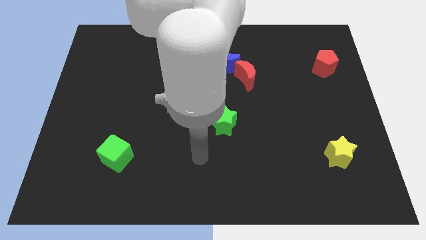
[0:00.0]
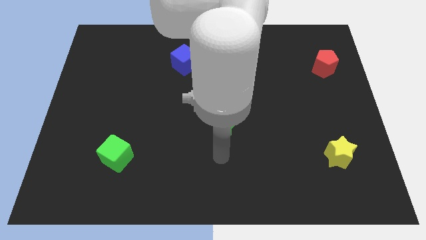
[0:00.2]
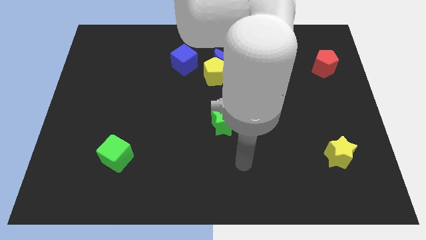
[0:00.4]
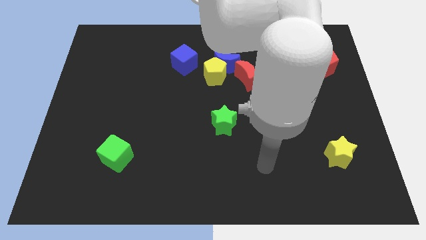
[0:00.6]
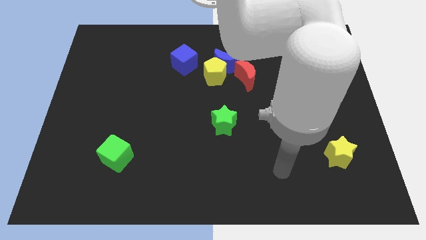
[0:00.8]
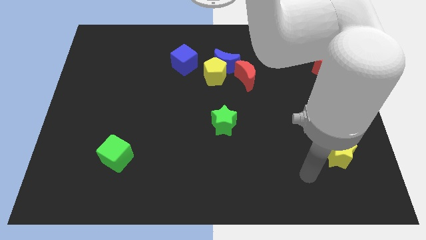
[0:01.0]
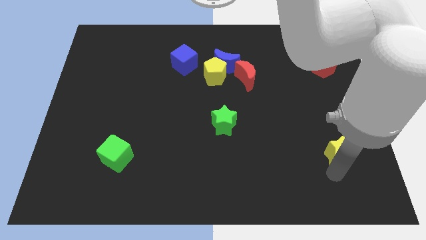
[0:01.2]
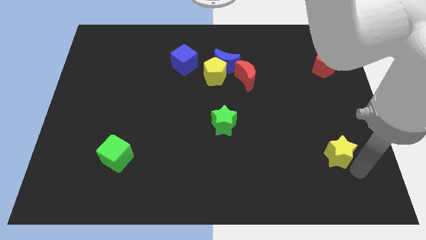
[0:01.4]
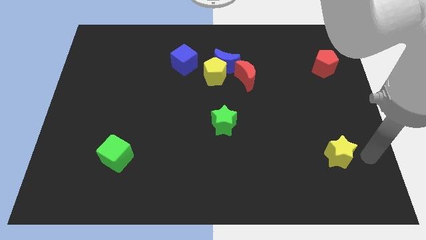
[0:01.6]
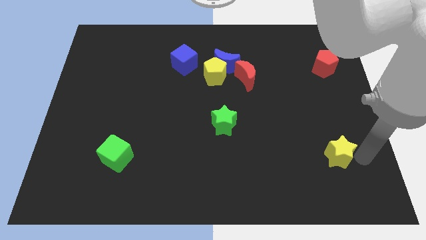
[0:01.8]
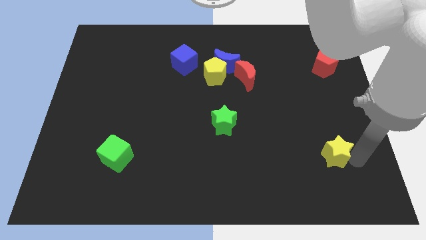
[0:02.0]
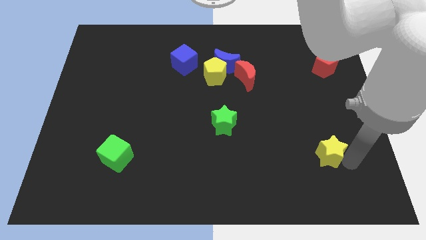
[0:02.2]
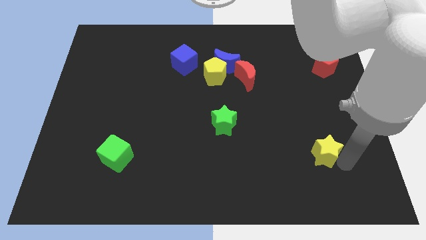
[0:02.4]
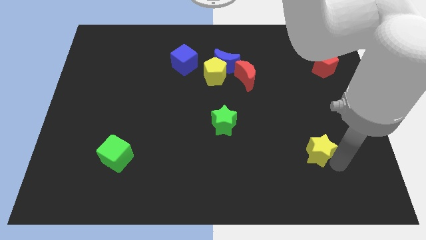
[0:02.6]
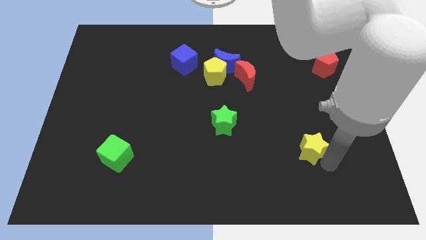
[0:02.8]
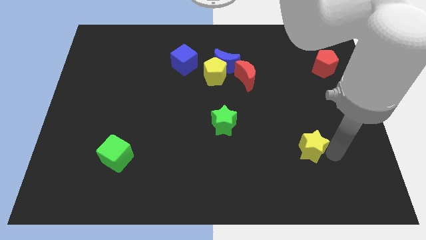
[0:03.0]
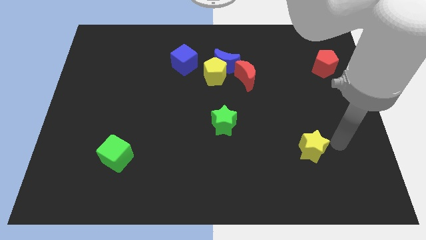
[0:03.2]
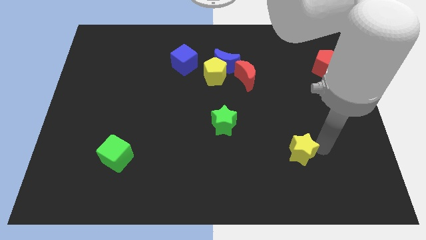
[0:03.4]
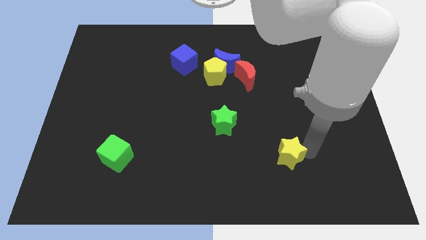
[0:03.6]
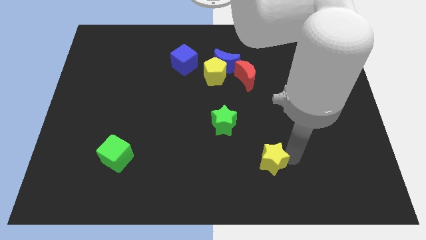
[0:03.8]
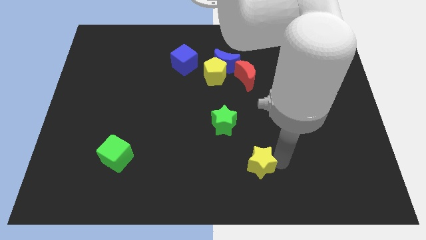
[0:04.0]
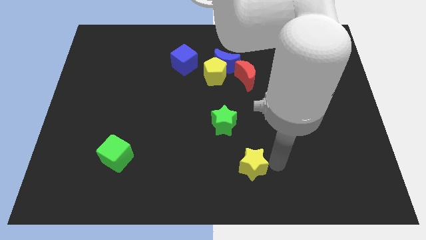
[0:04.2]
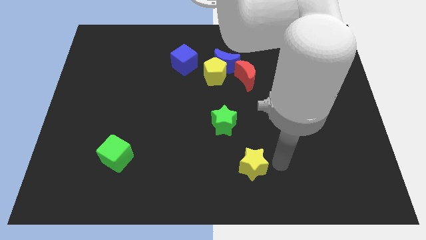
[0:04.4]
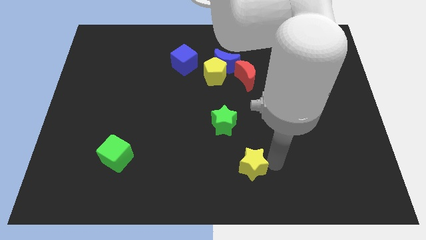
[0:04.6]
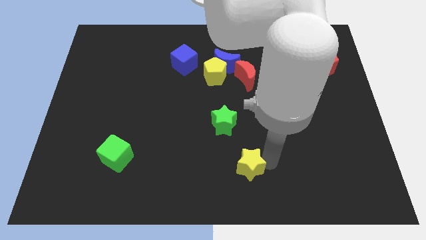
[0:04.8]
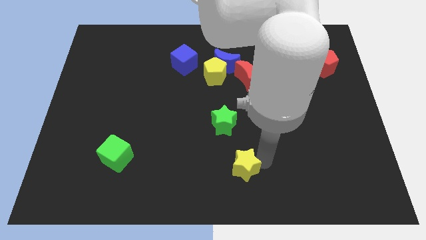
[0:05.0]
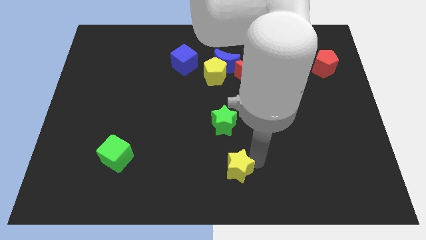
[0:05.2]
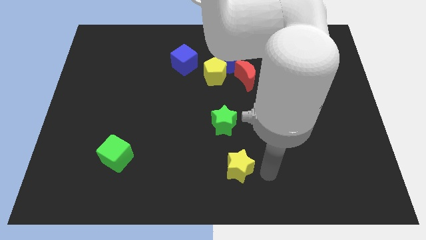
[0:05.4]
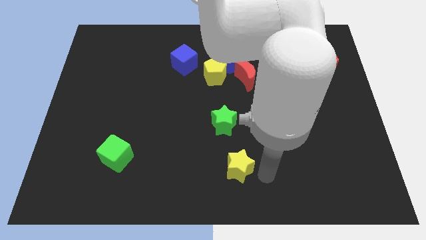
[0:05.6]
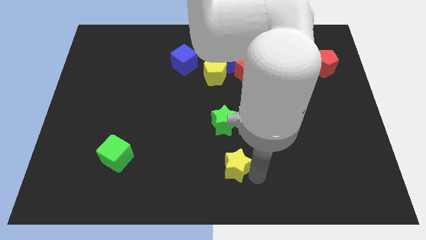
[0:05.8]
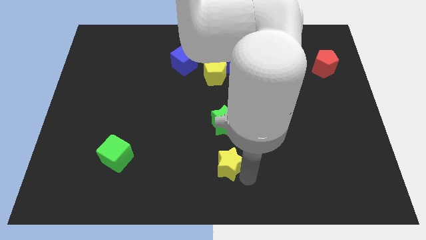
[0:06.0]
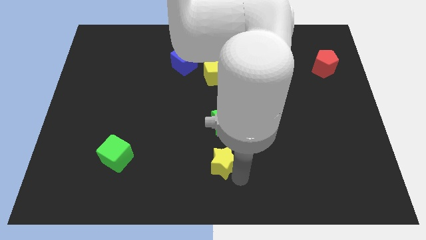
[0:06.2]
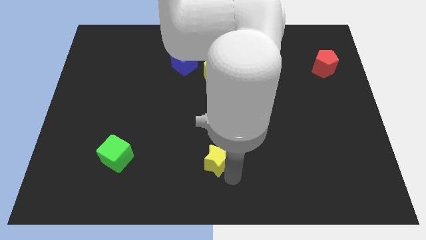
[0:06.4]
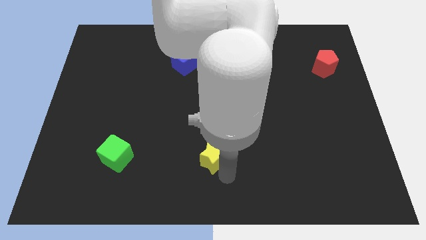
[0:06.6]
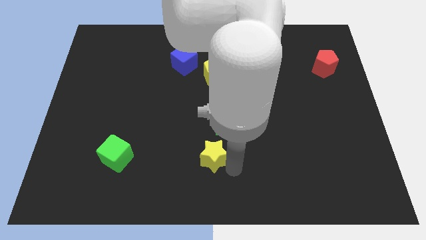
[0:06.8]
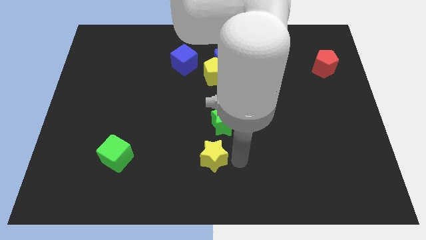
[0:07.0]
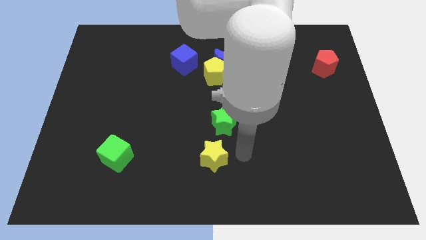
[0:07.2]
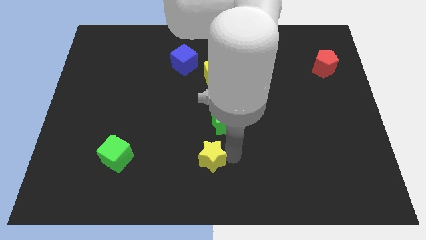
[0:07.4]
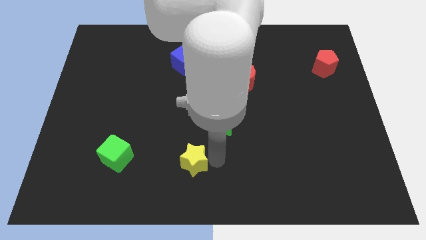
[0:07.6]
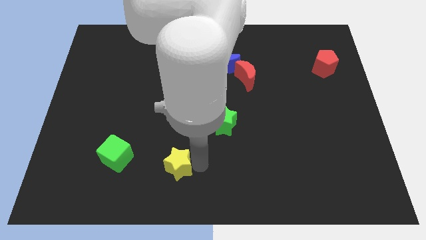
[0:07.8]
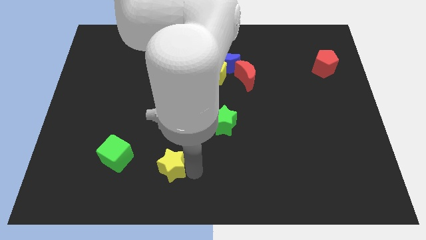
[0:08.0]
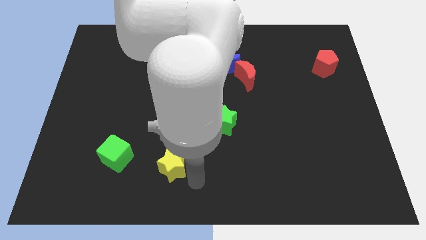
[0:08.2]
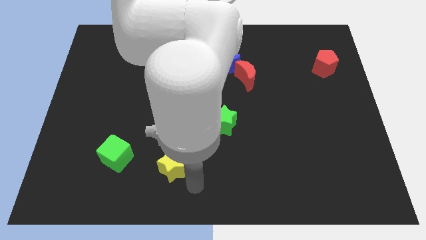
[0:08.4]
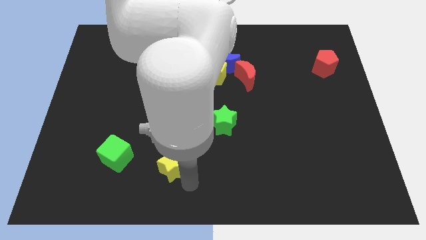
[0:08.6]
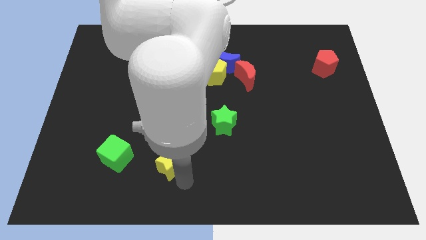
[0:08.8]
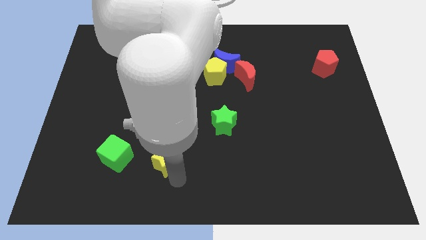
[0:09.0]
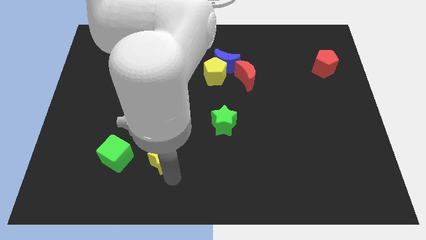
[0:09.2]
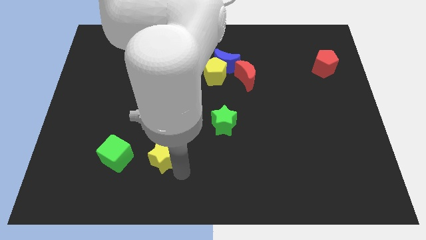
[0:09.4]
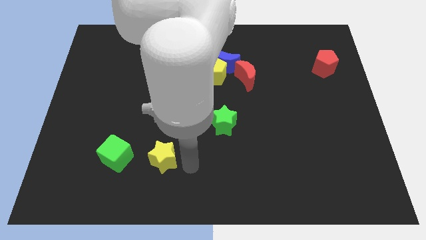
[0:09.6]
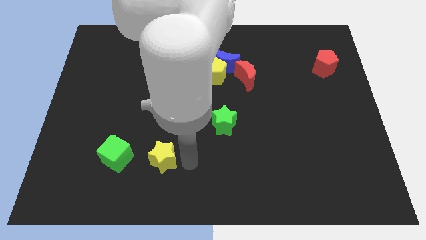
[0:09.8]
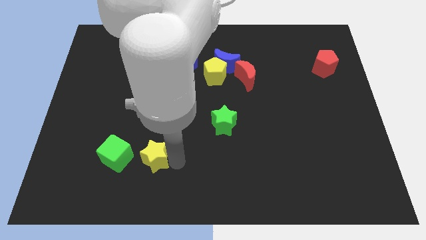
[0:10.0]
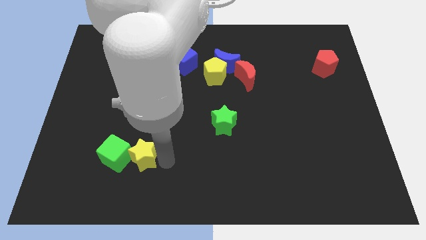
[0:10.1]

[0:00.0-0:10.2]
put the yellow star next to the green cube

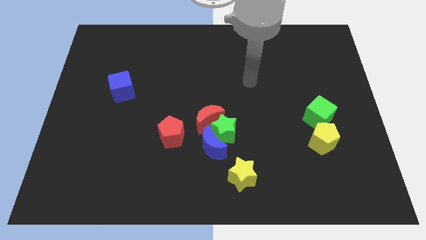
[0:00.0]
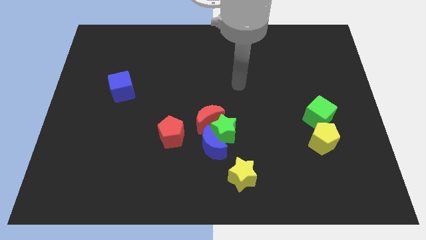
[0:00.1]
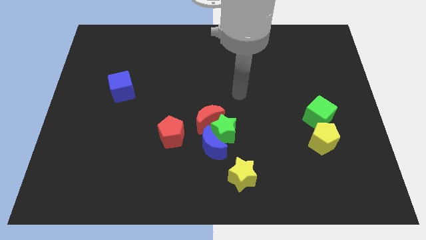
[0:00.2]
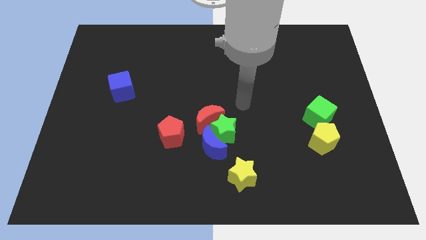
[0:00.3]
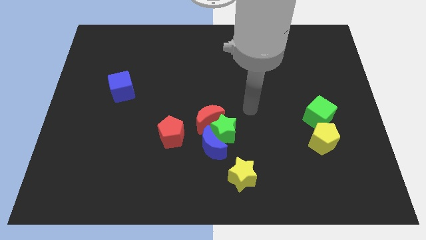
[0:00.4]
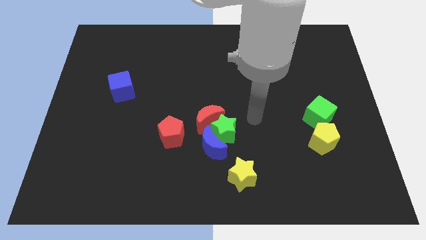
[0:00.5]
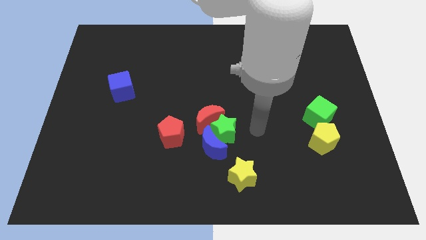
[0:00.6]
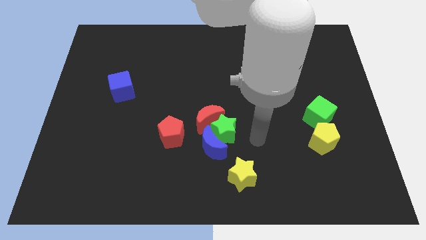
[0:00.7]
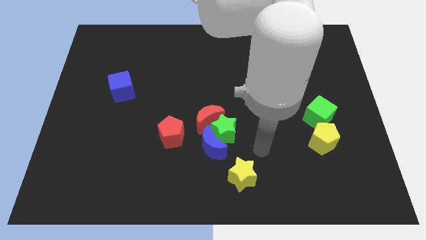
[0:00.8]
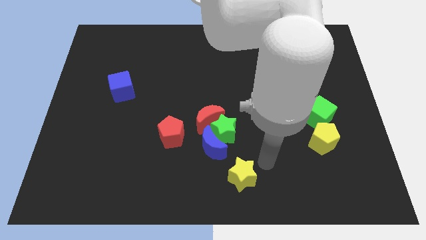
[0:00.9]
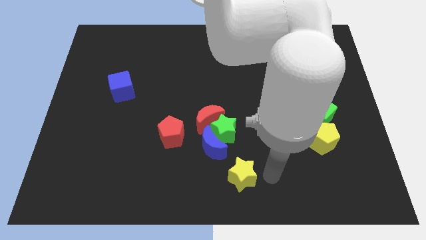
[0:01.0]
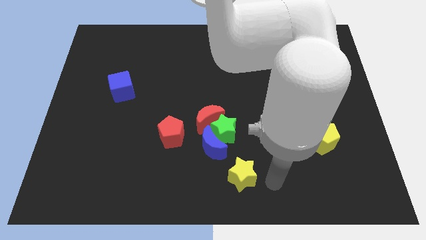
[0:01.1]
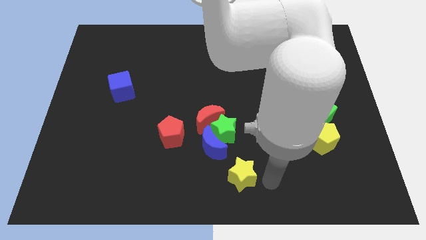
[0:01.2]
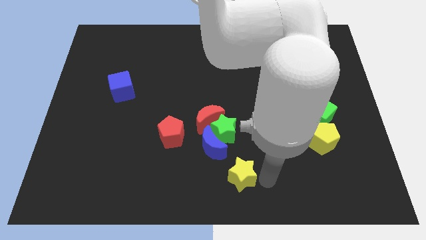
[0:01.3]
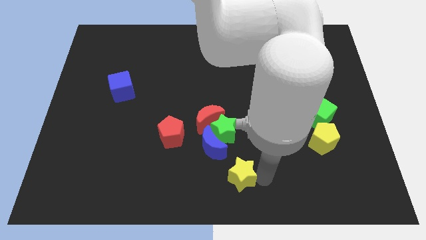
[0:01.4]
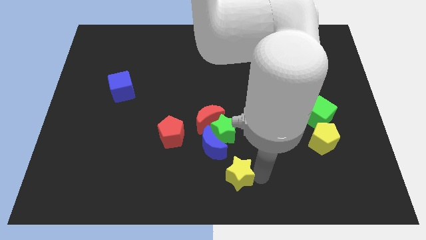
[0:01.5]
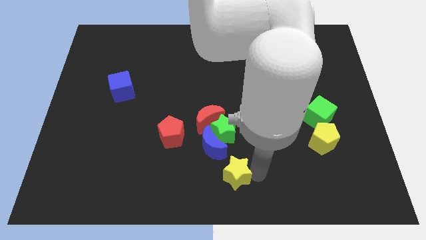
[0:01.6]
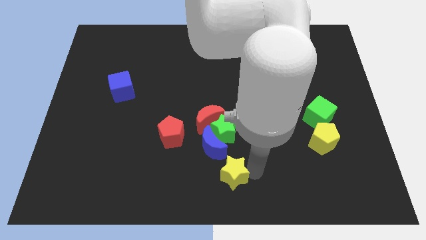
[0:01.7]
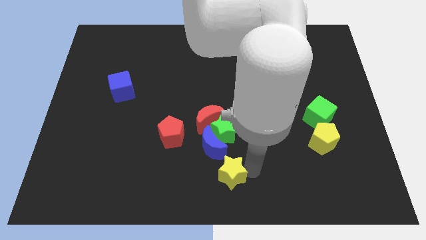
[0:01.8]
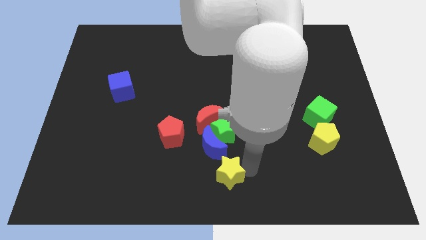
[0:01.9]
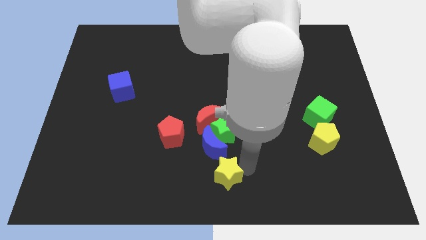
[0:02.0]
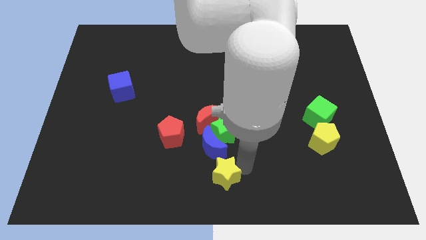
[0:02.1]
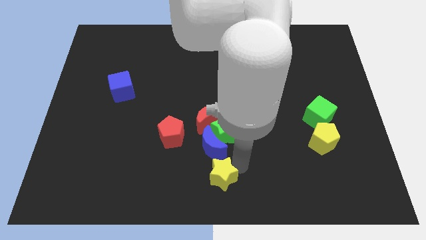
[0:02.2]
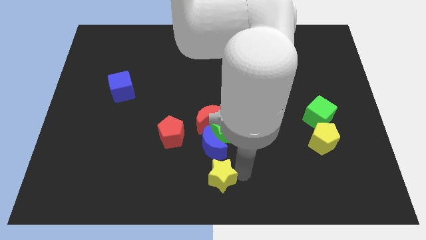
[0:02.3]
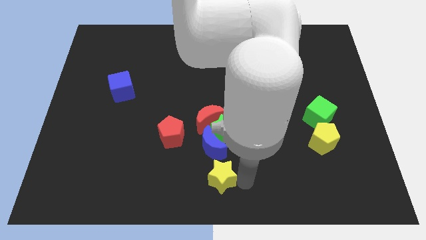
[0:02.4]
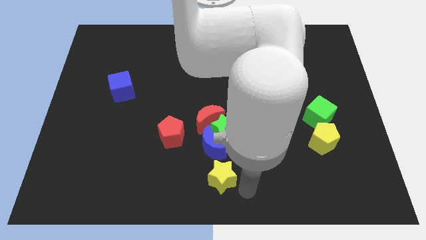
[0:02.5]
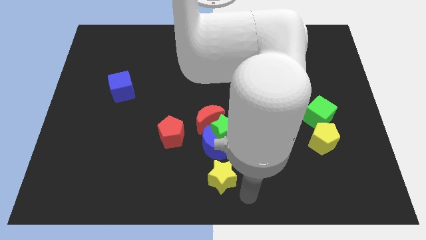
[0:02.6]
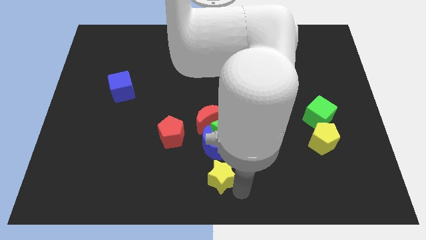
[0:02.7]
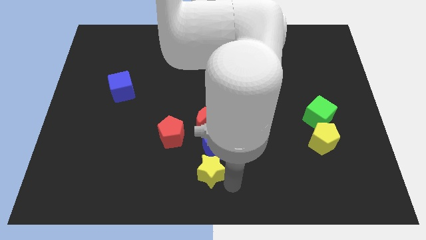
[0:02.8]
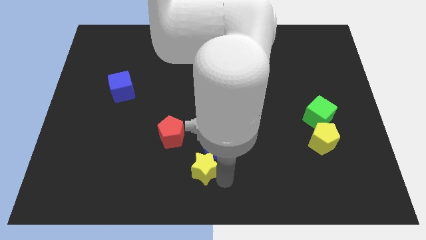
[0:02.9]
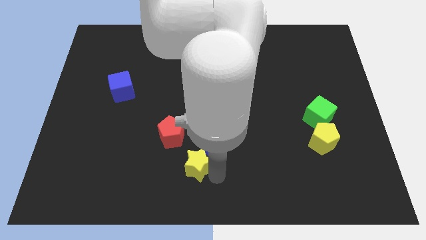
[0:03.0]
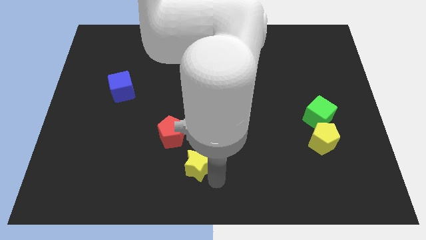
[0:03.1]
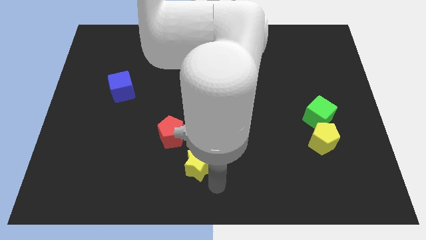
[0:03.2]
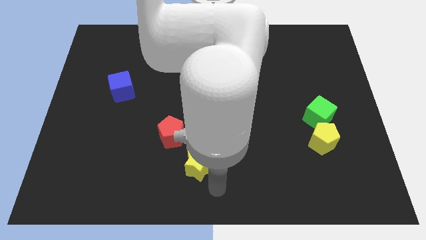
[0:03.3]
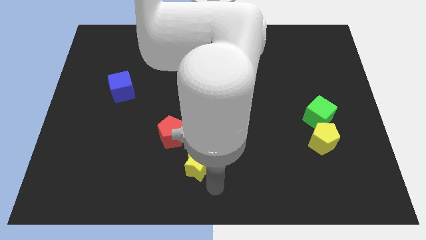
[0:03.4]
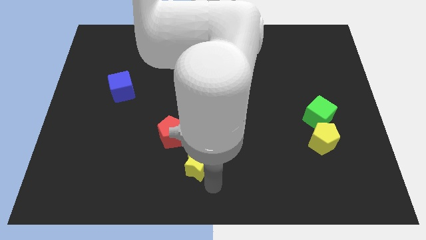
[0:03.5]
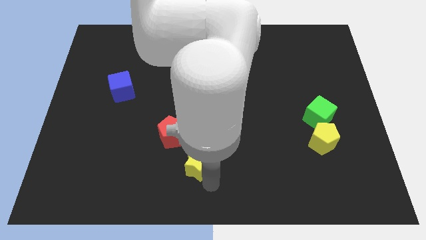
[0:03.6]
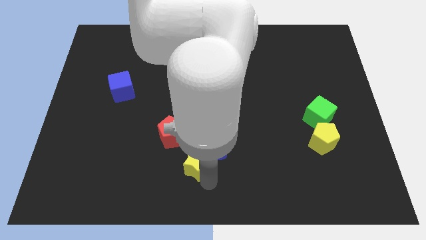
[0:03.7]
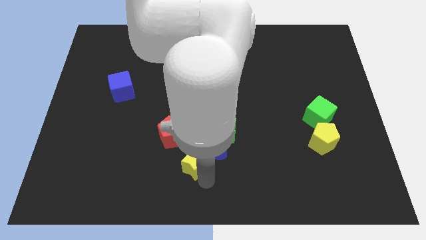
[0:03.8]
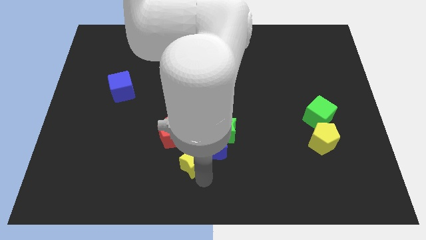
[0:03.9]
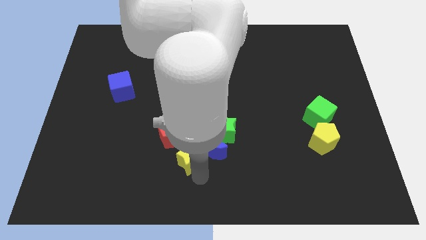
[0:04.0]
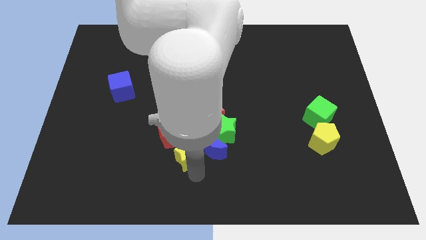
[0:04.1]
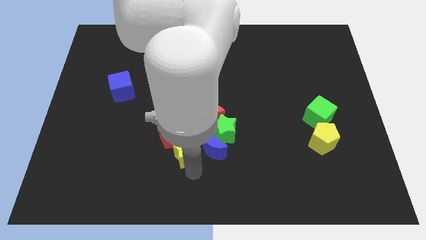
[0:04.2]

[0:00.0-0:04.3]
move the yellow star close to the red pentagon
